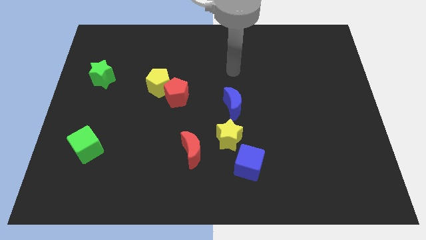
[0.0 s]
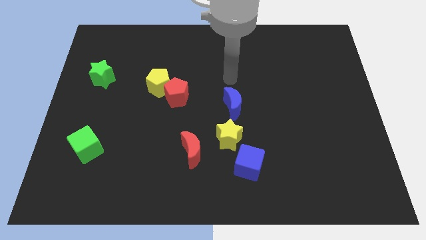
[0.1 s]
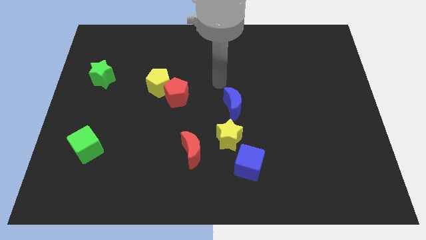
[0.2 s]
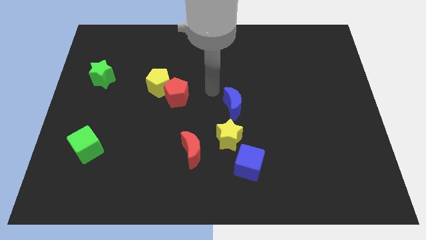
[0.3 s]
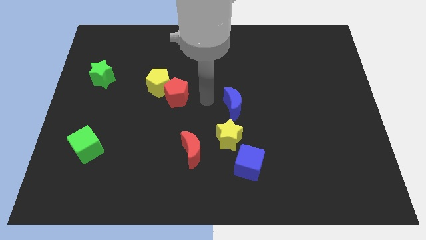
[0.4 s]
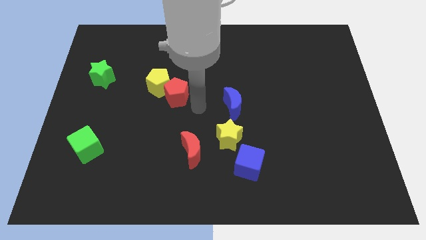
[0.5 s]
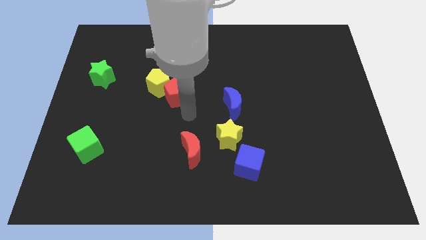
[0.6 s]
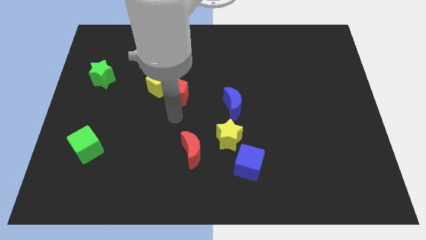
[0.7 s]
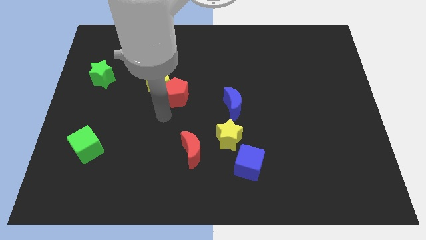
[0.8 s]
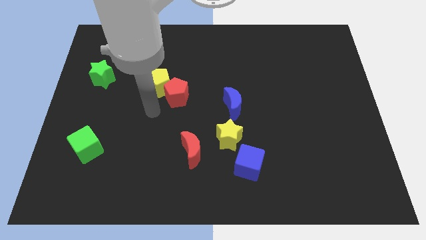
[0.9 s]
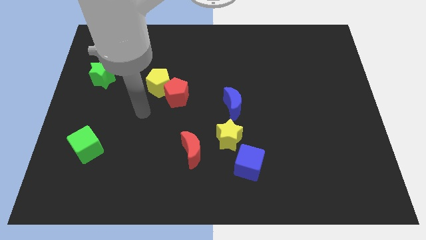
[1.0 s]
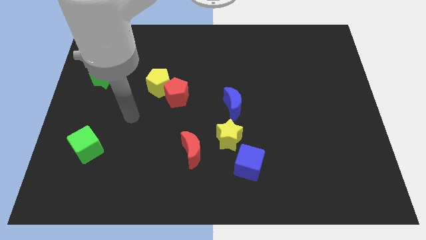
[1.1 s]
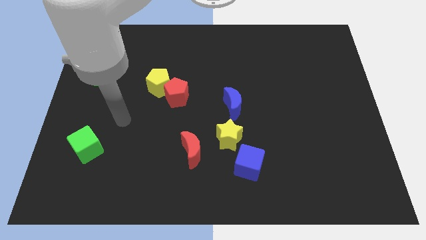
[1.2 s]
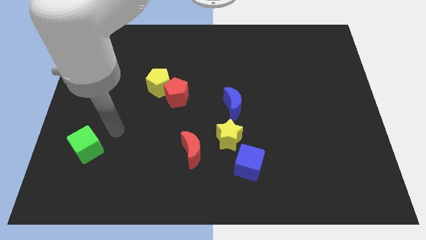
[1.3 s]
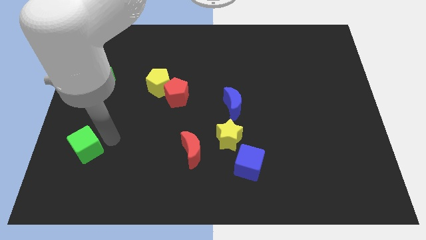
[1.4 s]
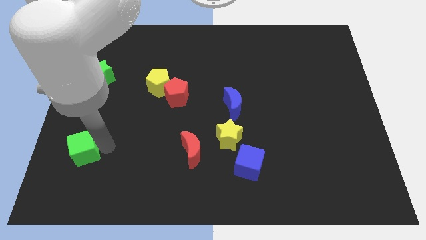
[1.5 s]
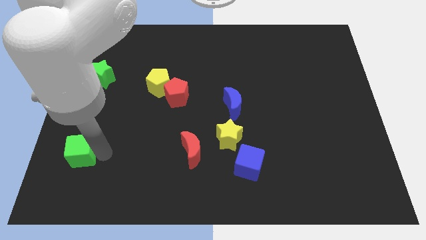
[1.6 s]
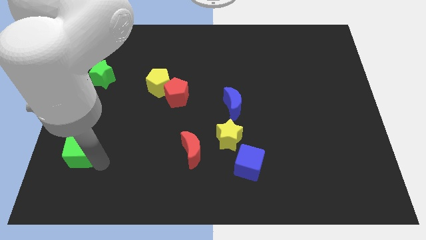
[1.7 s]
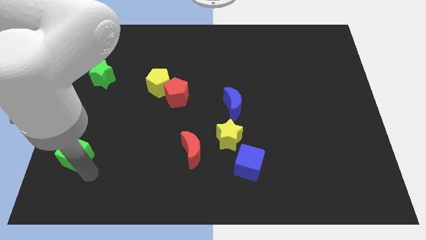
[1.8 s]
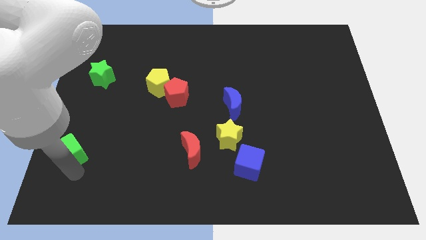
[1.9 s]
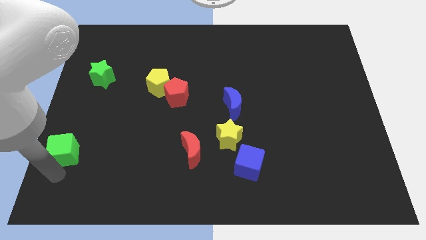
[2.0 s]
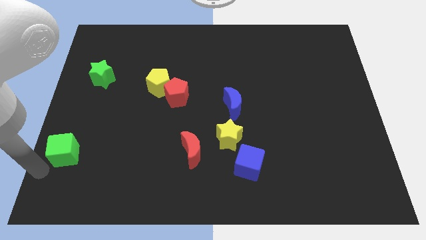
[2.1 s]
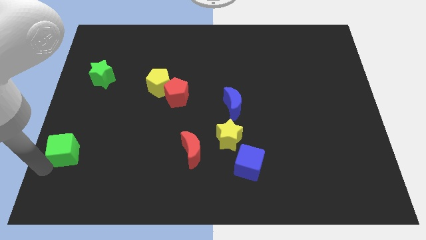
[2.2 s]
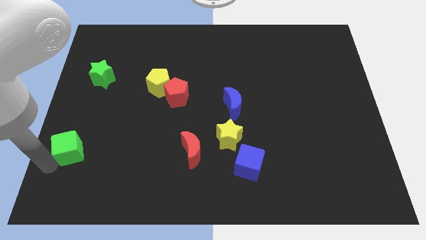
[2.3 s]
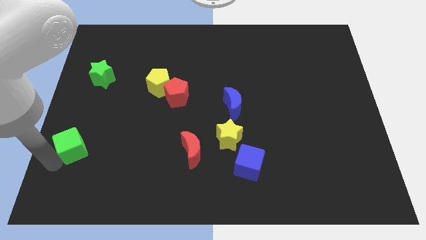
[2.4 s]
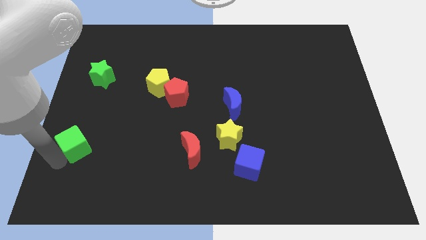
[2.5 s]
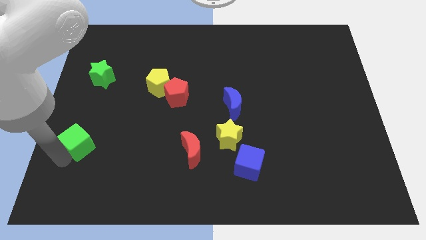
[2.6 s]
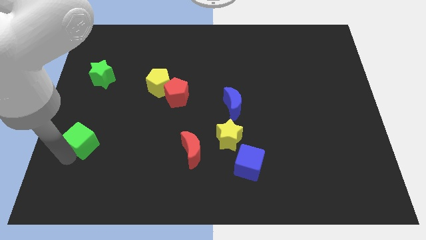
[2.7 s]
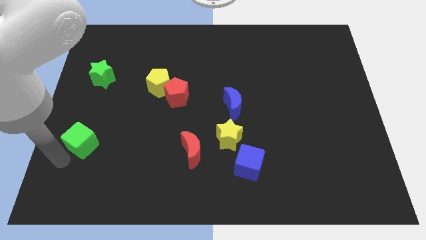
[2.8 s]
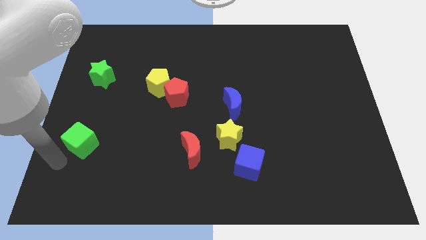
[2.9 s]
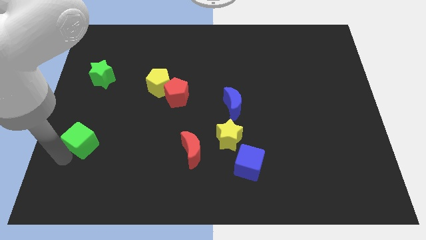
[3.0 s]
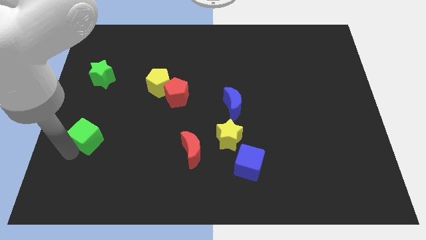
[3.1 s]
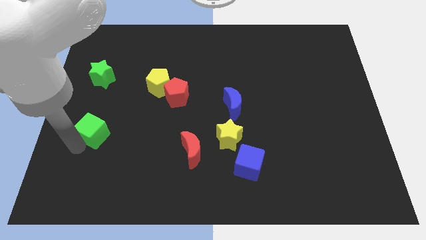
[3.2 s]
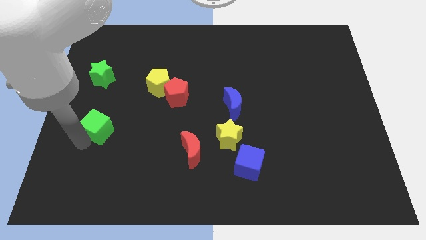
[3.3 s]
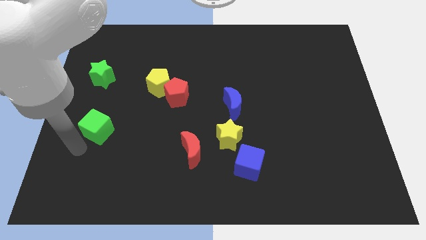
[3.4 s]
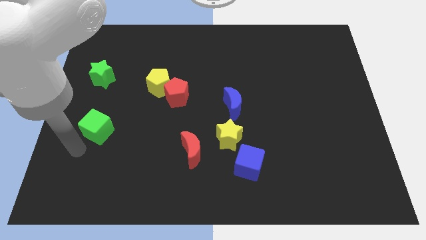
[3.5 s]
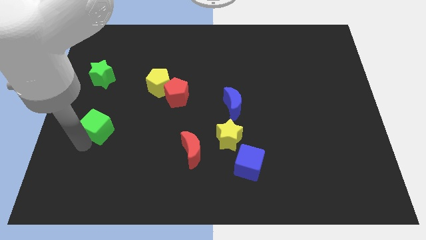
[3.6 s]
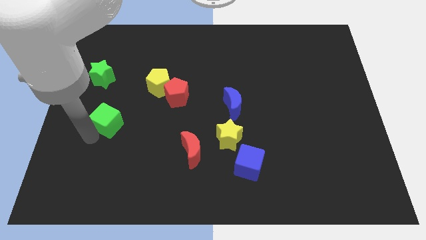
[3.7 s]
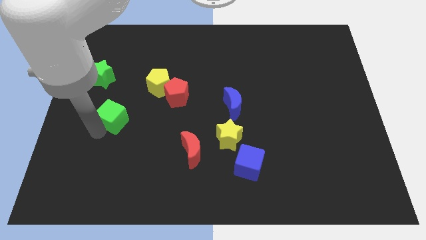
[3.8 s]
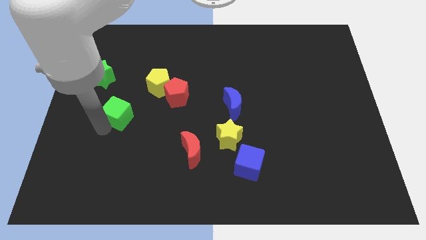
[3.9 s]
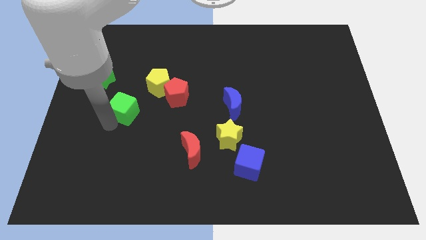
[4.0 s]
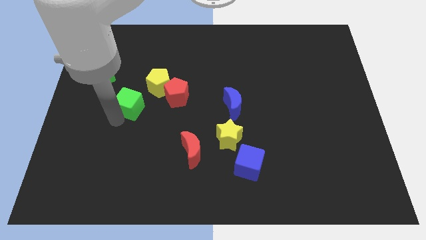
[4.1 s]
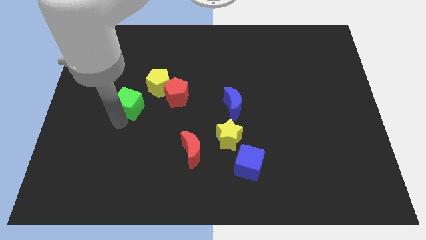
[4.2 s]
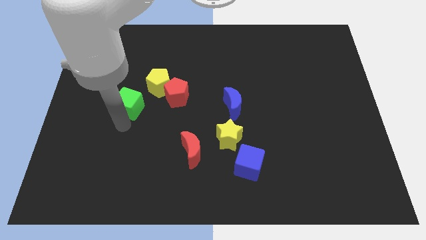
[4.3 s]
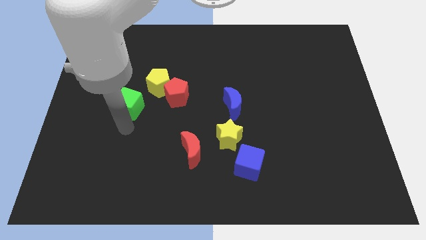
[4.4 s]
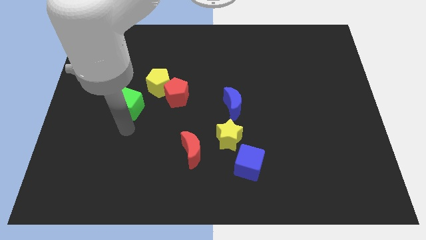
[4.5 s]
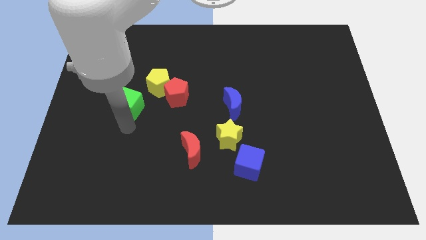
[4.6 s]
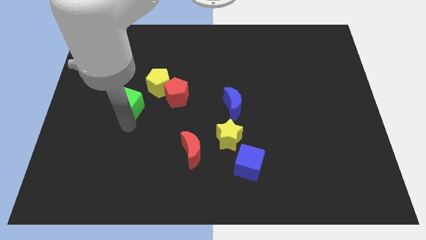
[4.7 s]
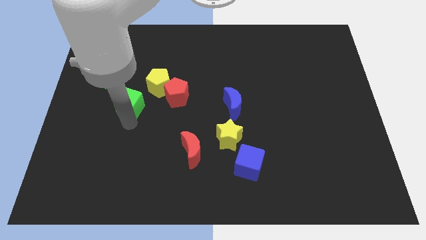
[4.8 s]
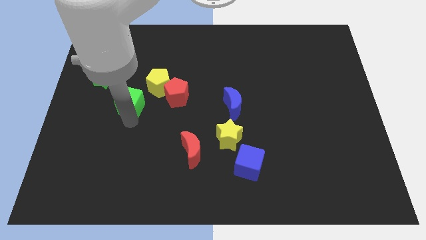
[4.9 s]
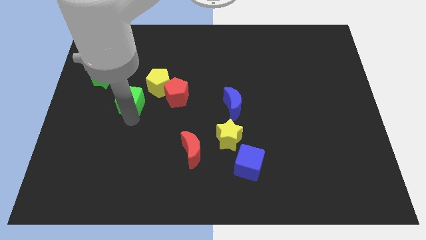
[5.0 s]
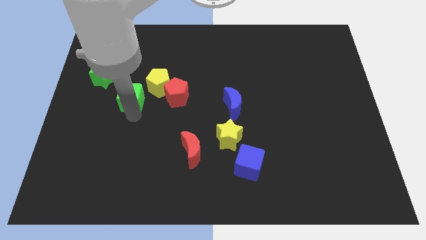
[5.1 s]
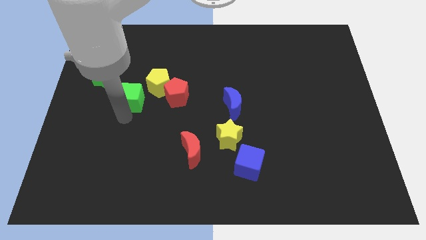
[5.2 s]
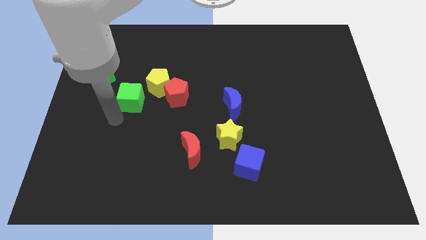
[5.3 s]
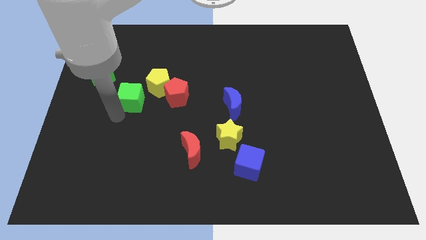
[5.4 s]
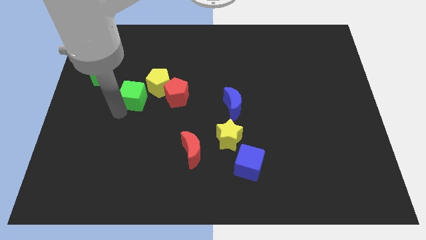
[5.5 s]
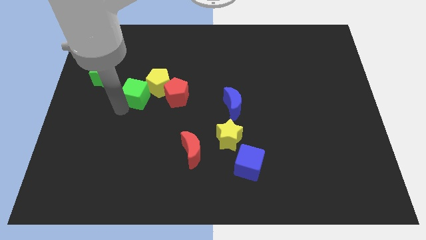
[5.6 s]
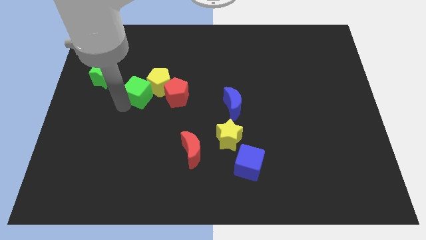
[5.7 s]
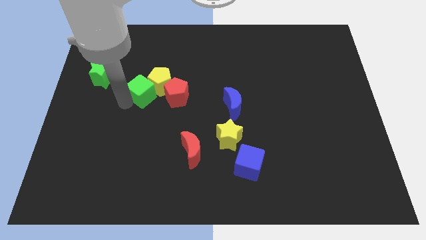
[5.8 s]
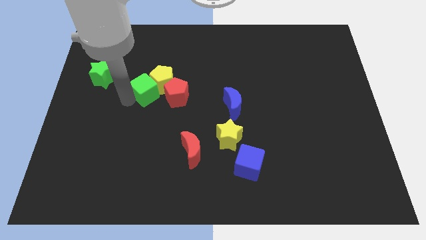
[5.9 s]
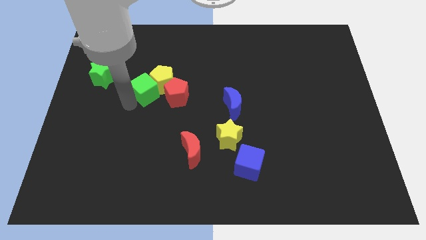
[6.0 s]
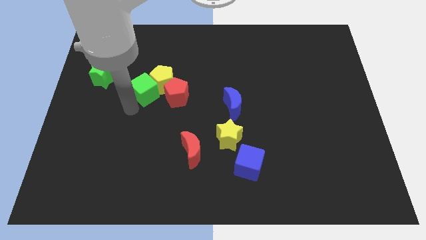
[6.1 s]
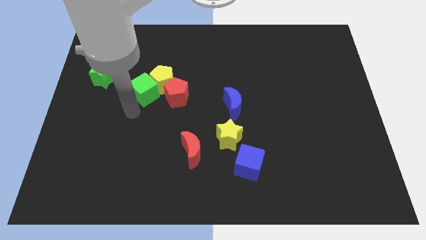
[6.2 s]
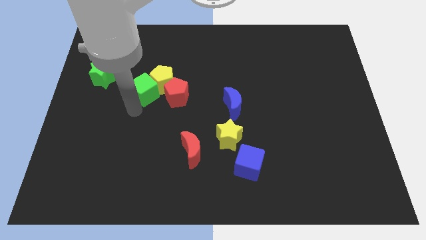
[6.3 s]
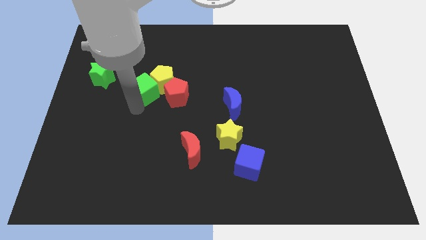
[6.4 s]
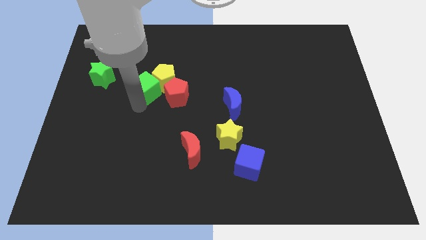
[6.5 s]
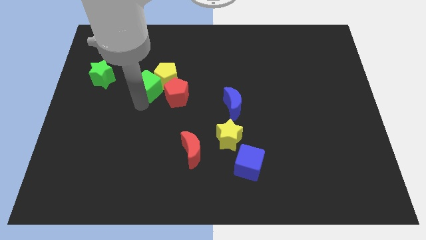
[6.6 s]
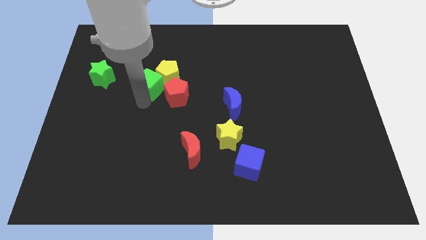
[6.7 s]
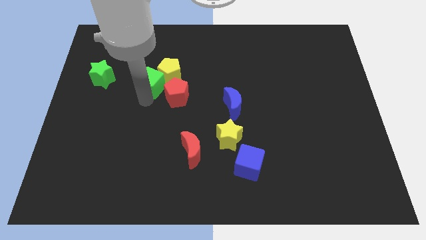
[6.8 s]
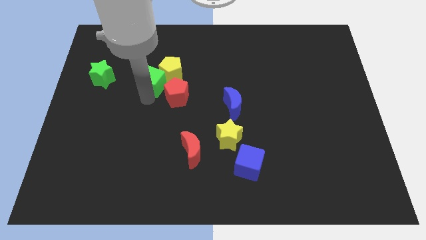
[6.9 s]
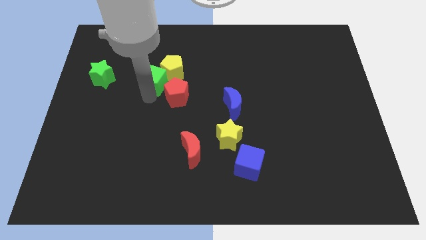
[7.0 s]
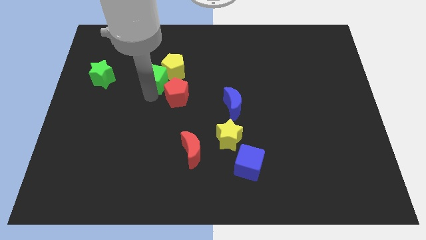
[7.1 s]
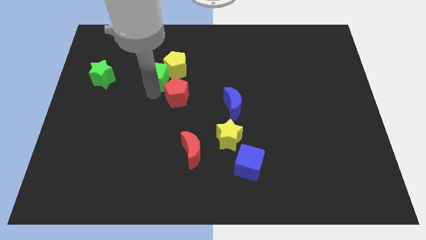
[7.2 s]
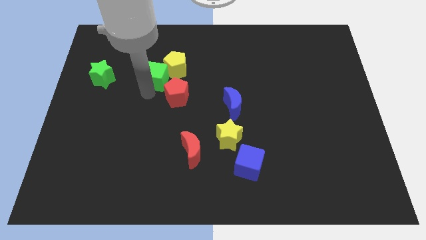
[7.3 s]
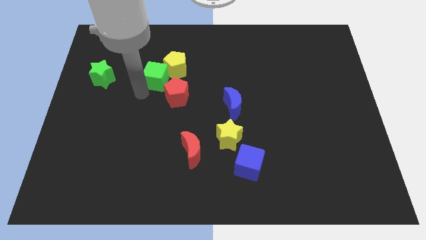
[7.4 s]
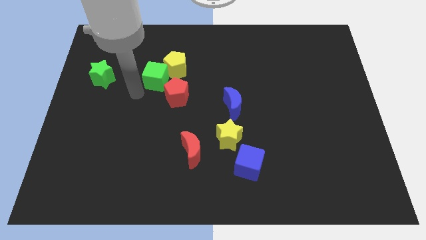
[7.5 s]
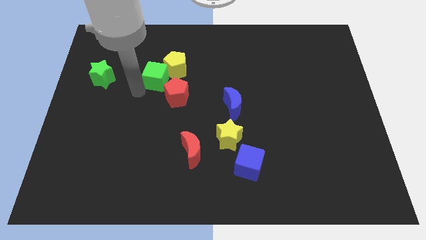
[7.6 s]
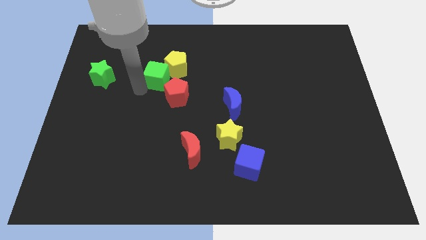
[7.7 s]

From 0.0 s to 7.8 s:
slide the green cube to the top side of the red pentagon
